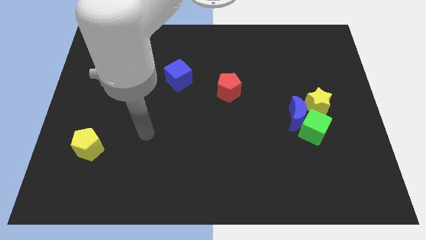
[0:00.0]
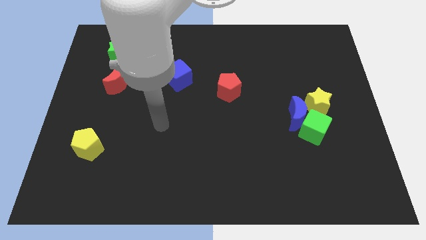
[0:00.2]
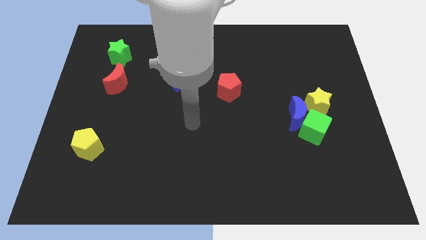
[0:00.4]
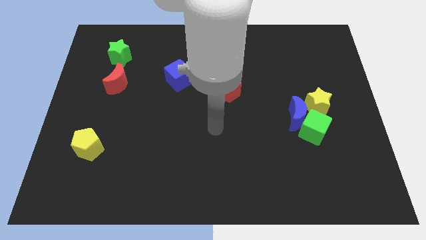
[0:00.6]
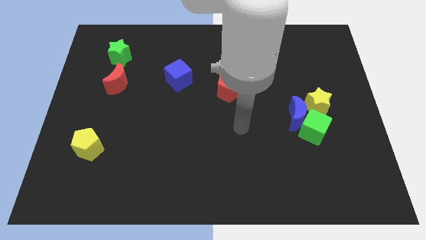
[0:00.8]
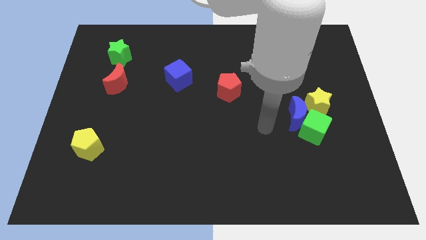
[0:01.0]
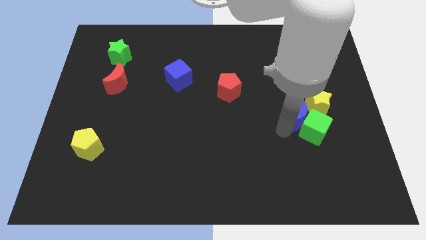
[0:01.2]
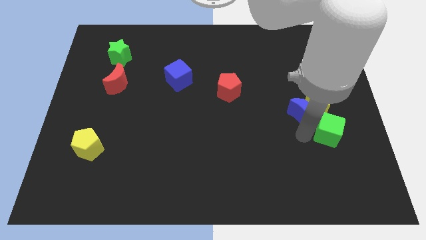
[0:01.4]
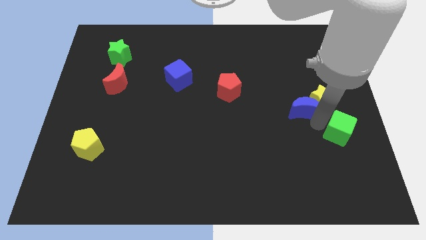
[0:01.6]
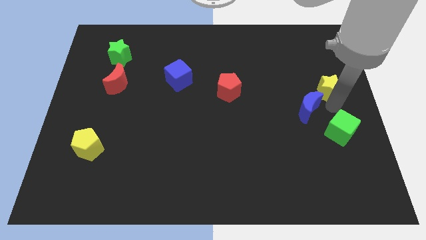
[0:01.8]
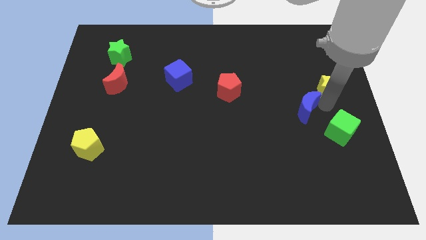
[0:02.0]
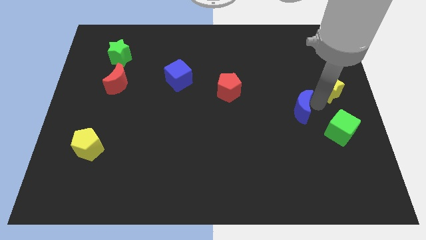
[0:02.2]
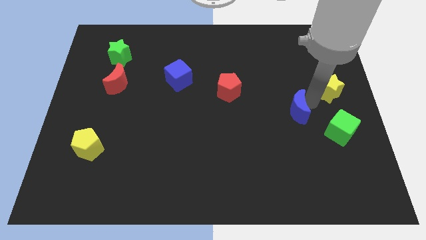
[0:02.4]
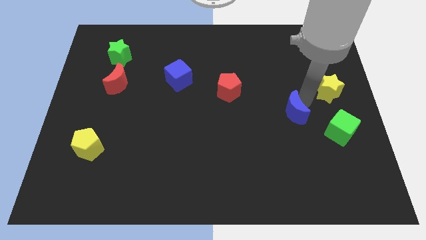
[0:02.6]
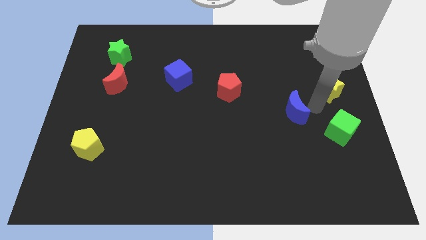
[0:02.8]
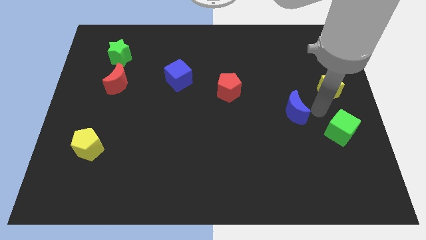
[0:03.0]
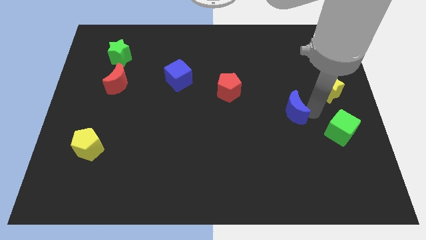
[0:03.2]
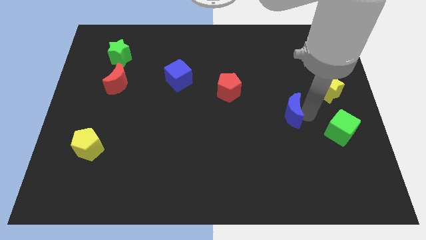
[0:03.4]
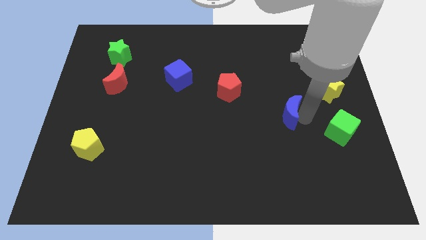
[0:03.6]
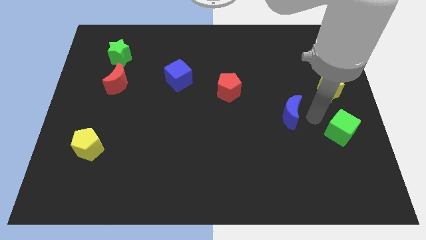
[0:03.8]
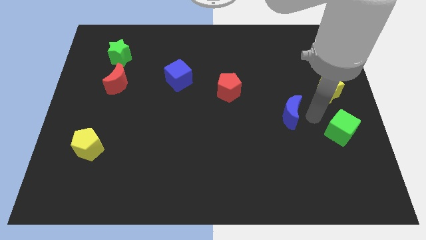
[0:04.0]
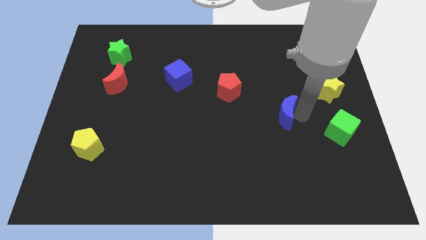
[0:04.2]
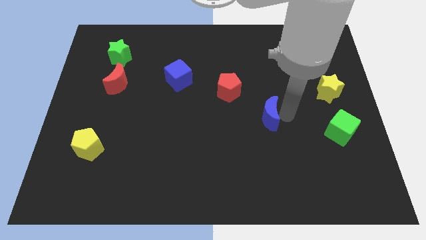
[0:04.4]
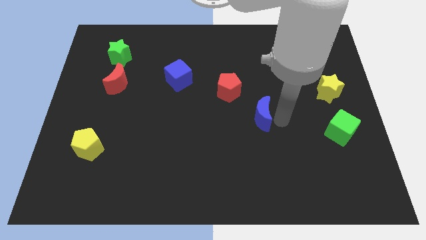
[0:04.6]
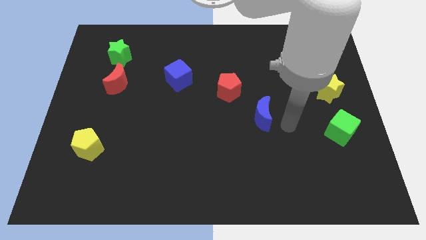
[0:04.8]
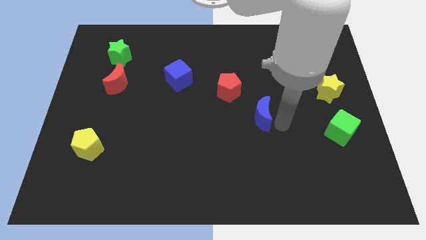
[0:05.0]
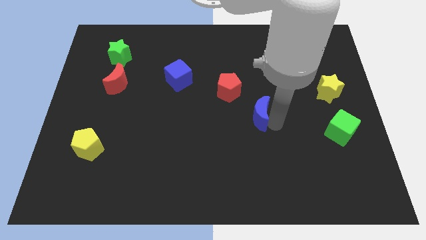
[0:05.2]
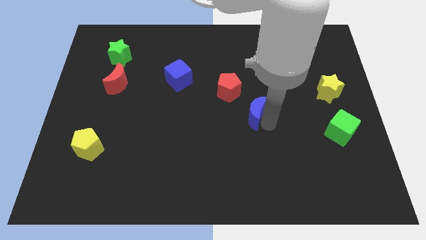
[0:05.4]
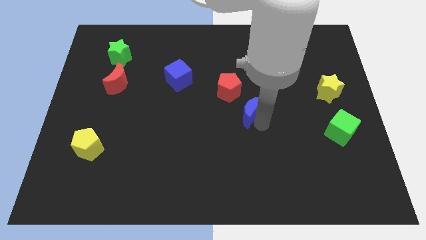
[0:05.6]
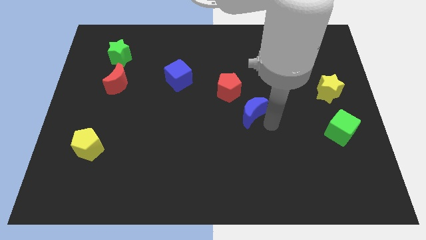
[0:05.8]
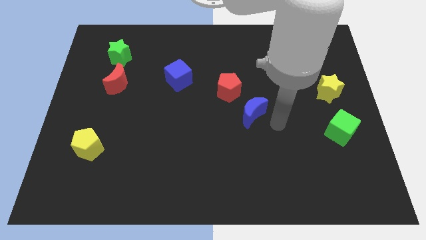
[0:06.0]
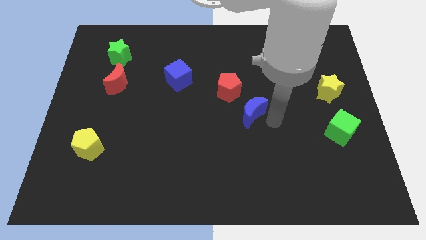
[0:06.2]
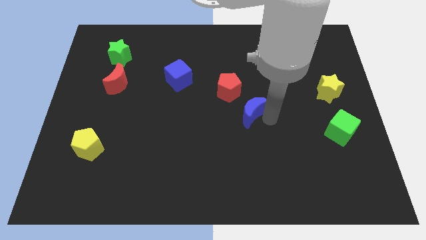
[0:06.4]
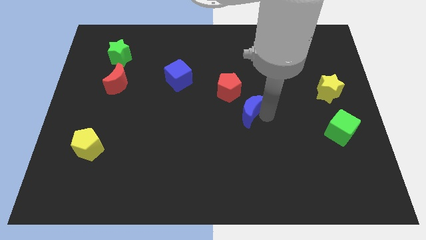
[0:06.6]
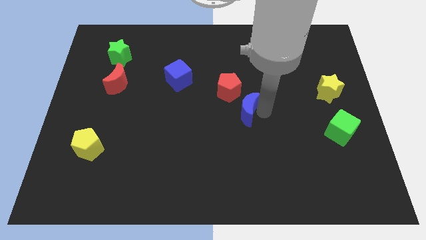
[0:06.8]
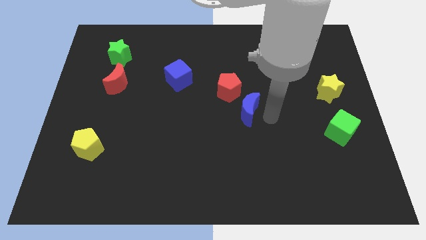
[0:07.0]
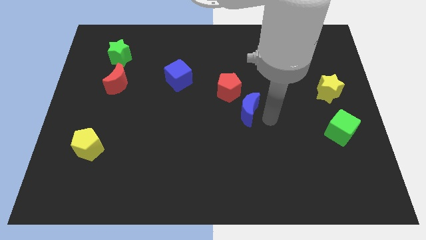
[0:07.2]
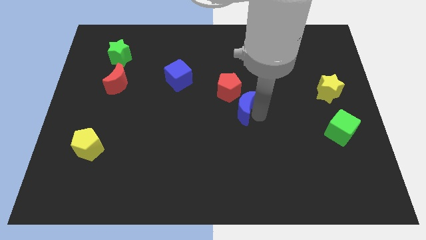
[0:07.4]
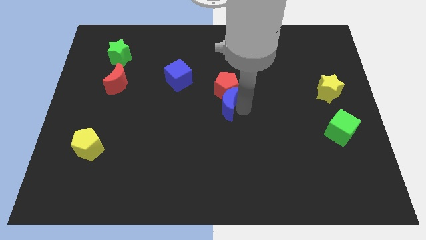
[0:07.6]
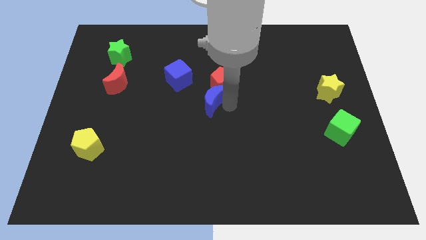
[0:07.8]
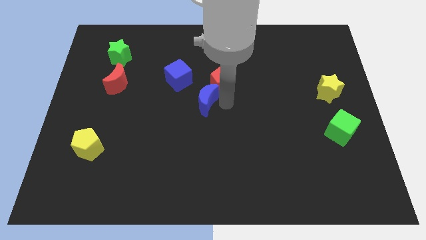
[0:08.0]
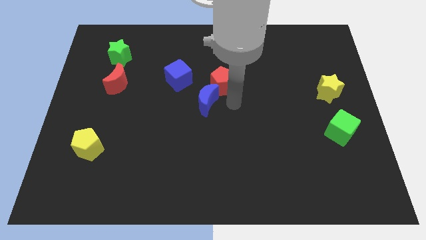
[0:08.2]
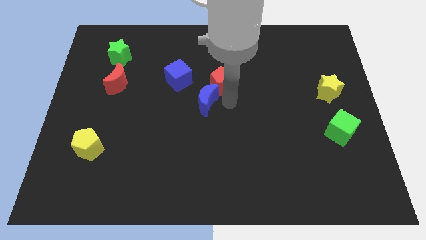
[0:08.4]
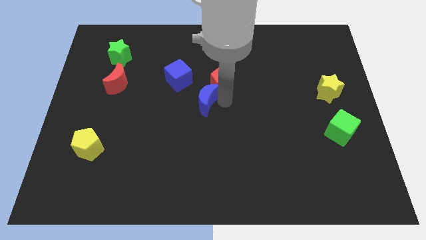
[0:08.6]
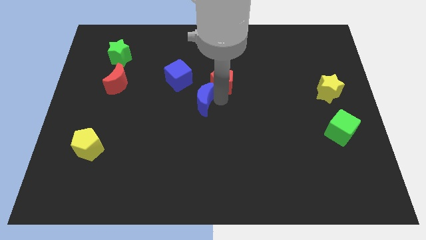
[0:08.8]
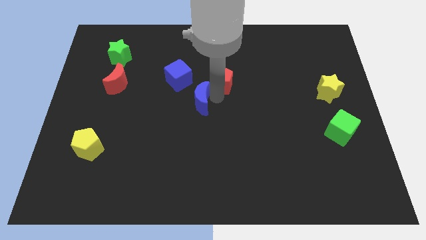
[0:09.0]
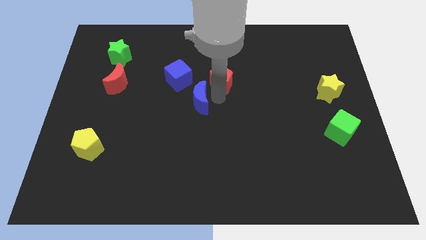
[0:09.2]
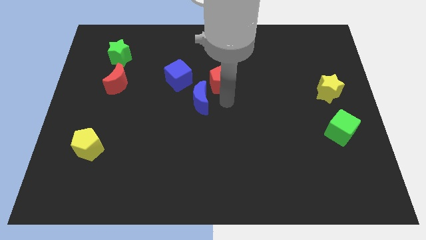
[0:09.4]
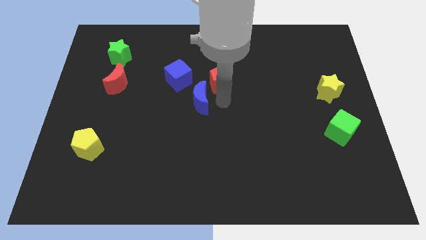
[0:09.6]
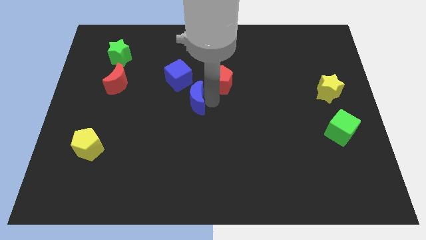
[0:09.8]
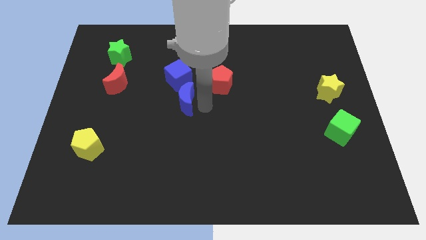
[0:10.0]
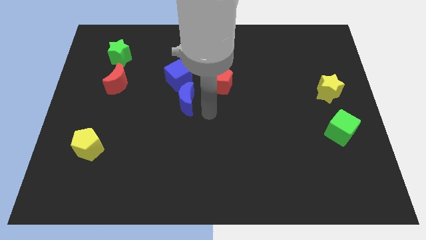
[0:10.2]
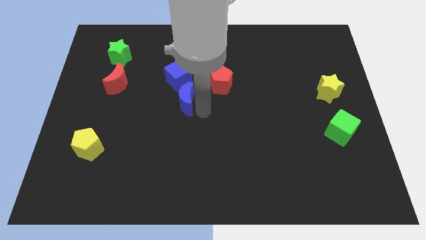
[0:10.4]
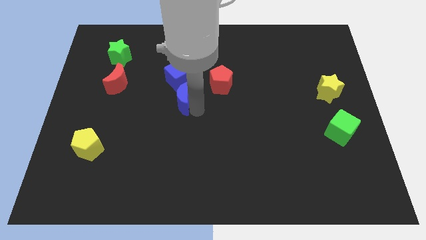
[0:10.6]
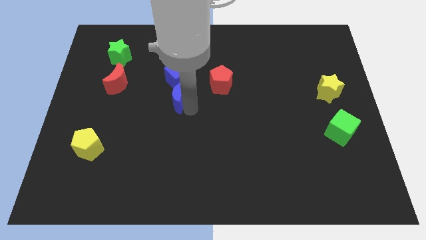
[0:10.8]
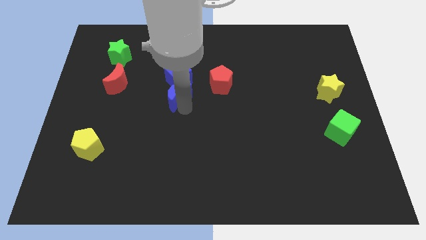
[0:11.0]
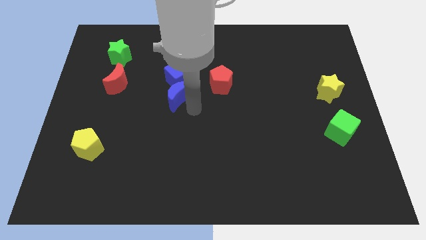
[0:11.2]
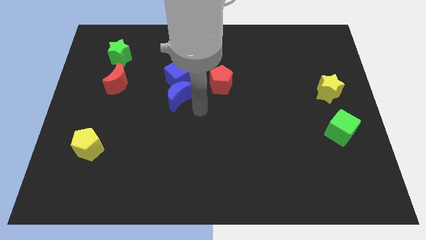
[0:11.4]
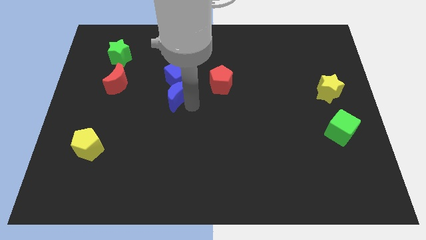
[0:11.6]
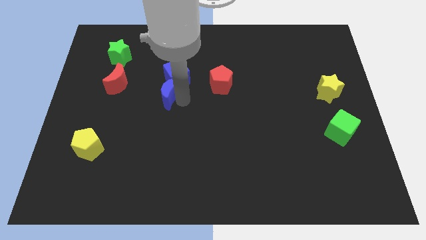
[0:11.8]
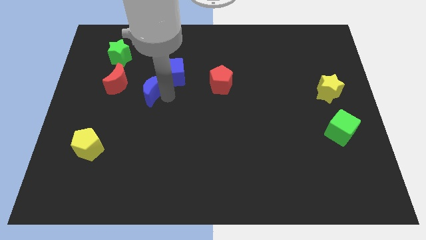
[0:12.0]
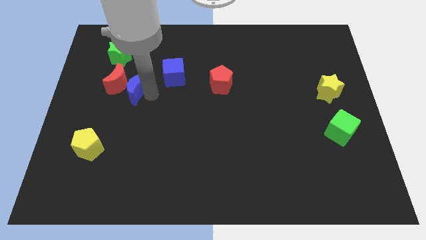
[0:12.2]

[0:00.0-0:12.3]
slide the blue moon to the left of the blue cube
